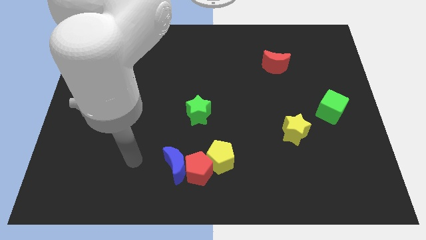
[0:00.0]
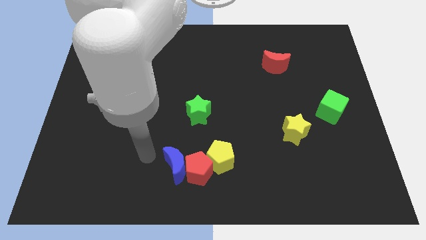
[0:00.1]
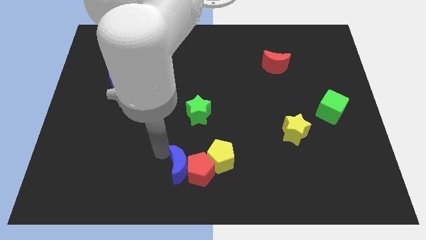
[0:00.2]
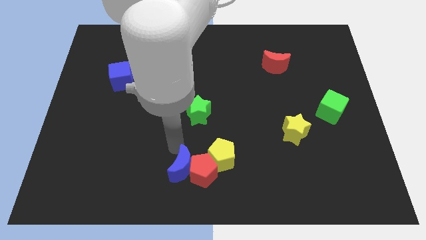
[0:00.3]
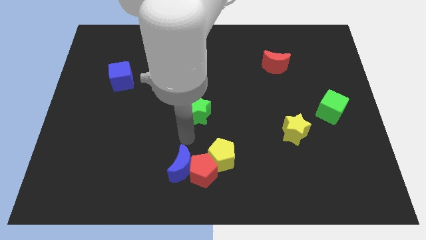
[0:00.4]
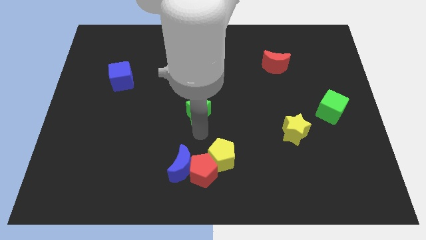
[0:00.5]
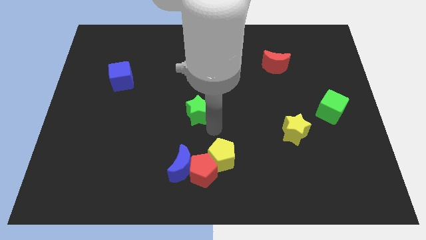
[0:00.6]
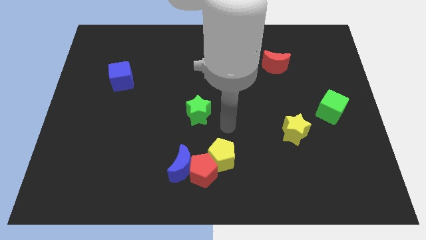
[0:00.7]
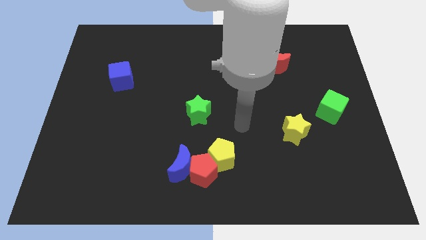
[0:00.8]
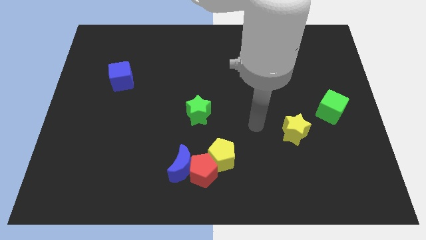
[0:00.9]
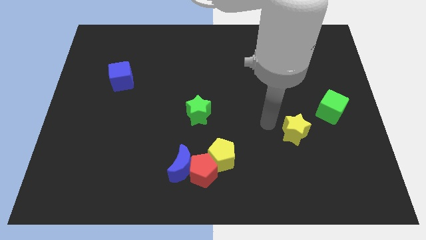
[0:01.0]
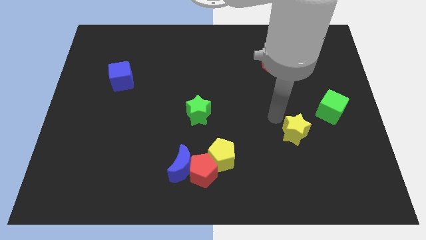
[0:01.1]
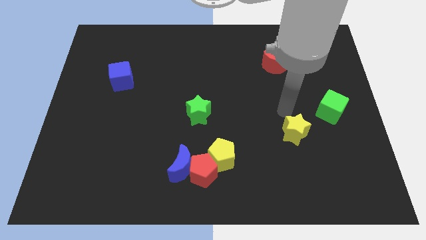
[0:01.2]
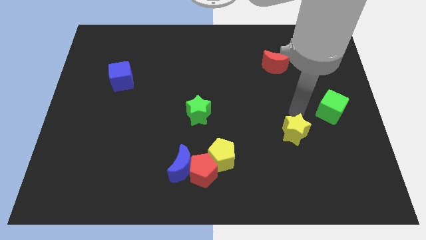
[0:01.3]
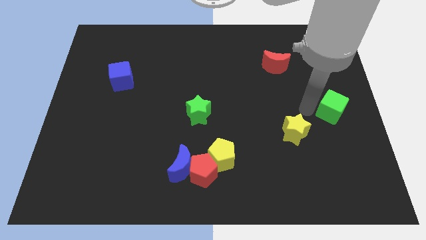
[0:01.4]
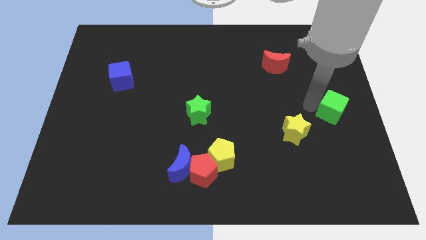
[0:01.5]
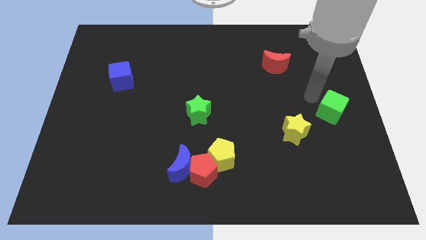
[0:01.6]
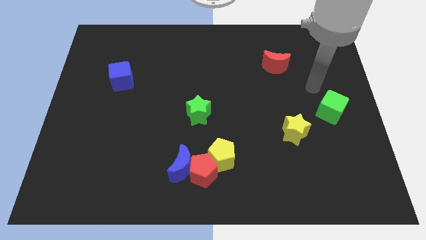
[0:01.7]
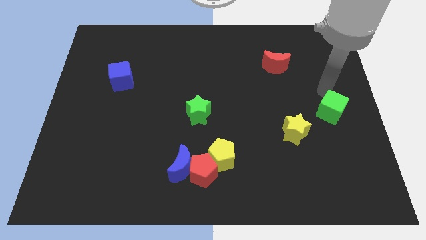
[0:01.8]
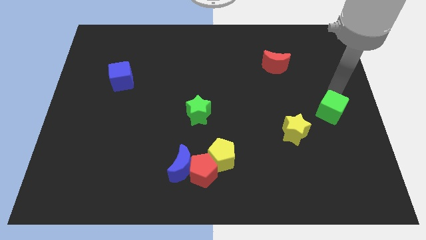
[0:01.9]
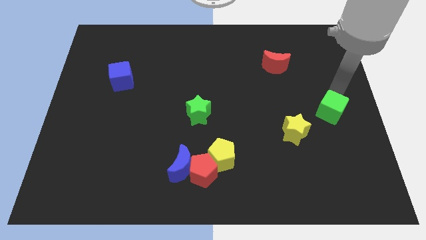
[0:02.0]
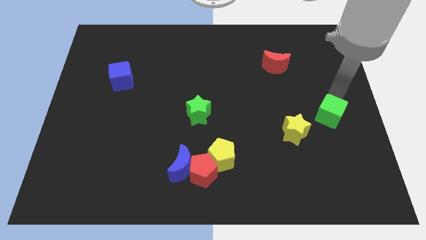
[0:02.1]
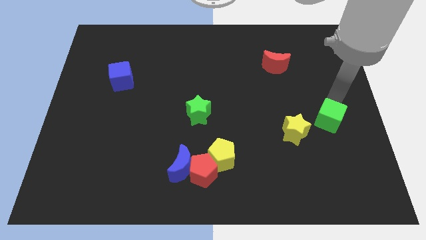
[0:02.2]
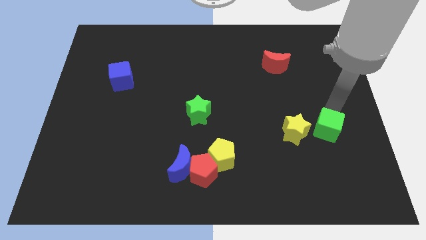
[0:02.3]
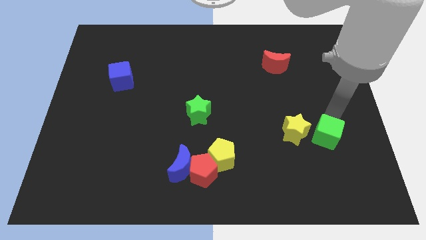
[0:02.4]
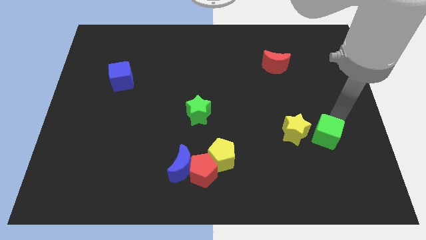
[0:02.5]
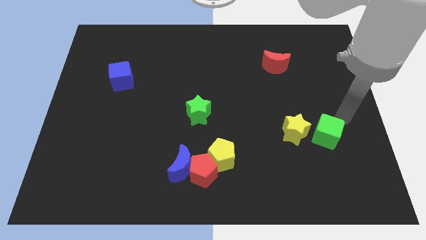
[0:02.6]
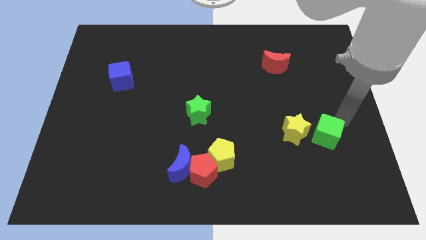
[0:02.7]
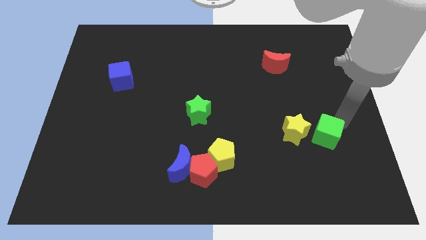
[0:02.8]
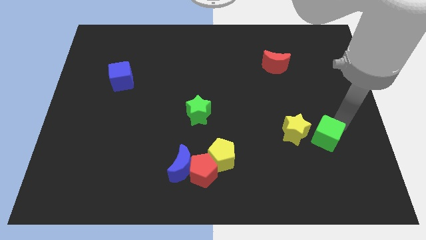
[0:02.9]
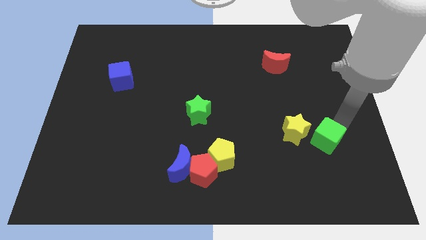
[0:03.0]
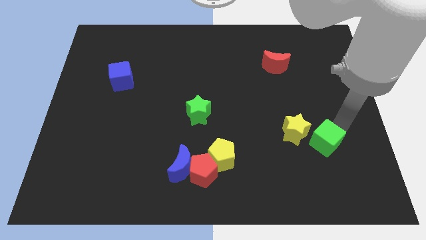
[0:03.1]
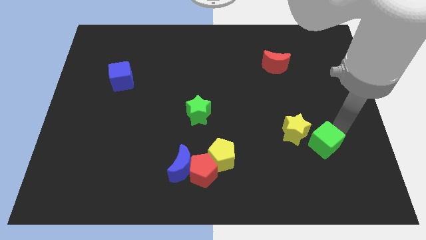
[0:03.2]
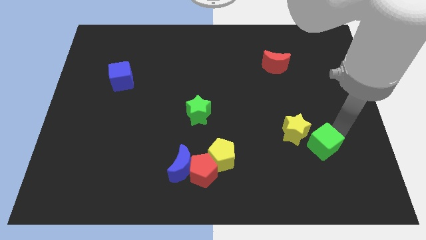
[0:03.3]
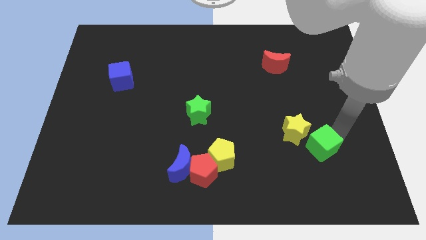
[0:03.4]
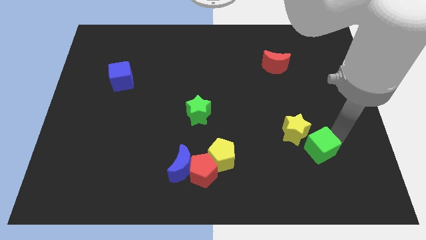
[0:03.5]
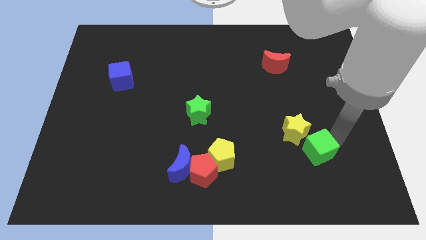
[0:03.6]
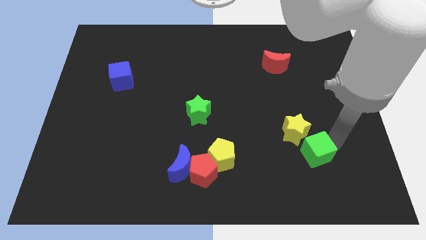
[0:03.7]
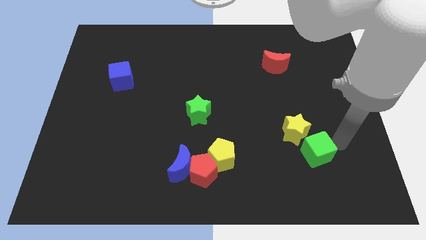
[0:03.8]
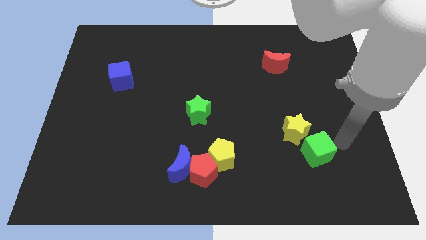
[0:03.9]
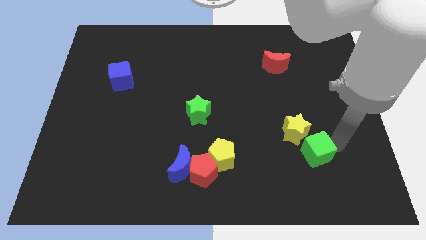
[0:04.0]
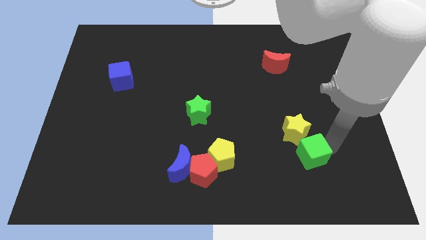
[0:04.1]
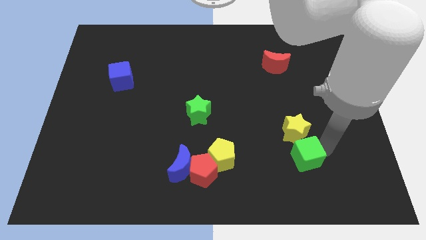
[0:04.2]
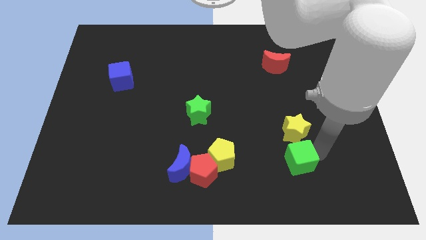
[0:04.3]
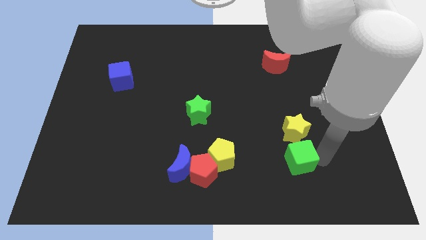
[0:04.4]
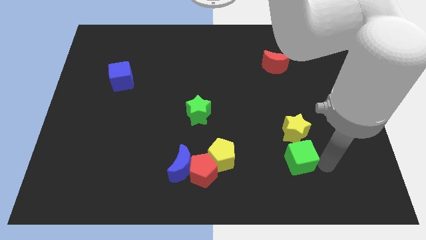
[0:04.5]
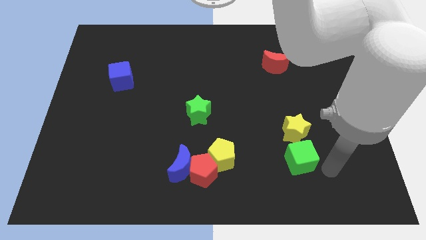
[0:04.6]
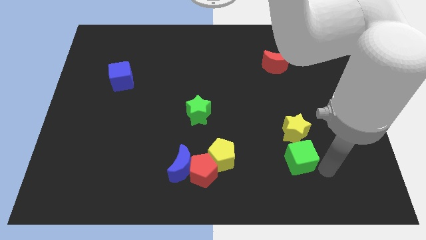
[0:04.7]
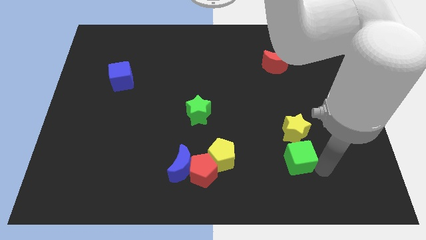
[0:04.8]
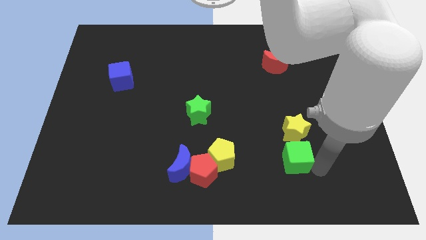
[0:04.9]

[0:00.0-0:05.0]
put the green cube to the bottom left side of the yellow star

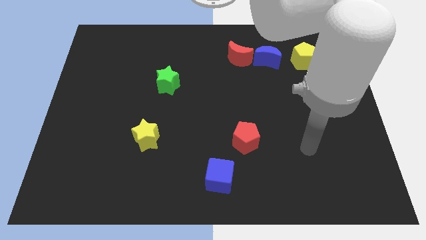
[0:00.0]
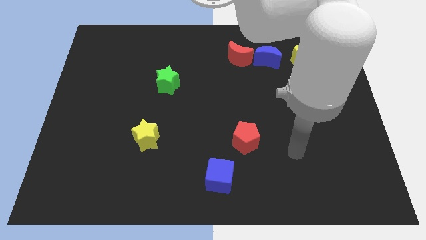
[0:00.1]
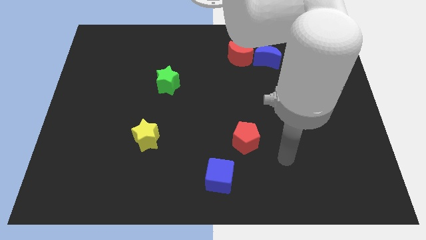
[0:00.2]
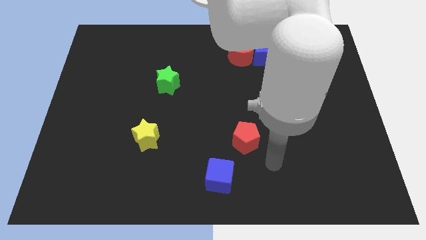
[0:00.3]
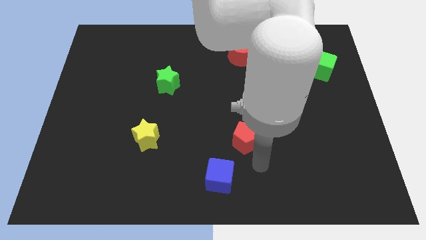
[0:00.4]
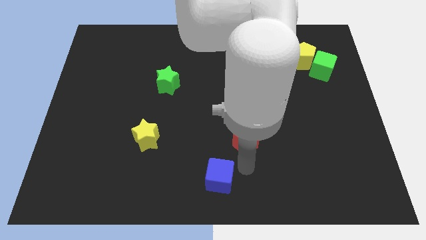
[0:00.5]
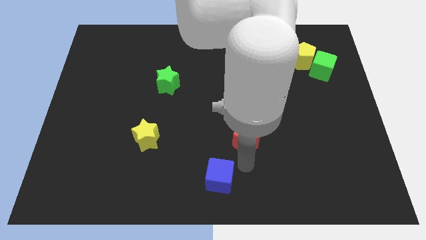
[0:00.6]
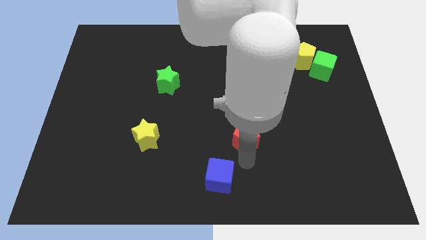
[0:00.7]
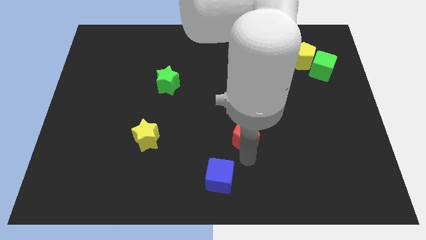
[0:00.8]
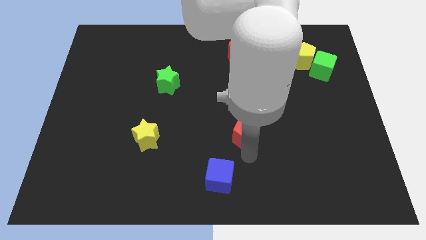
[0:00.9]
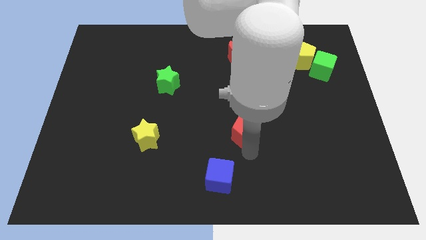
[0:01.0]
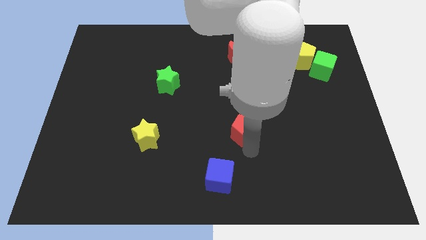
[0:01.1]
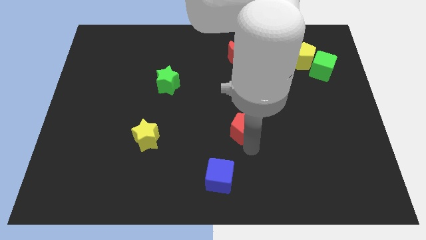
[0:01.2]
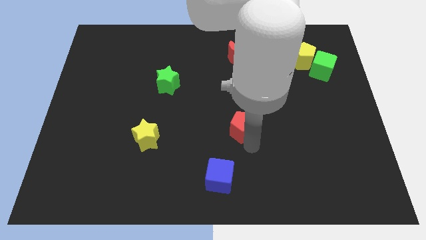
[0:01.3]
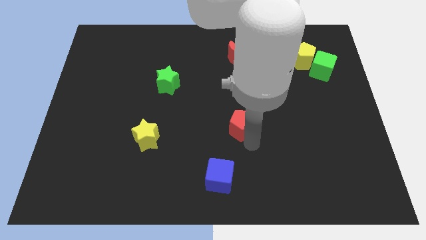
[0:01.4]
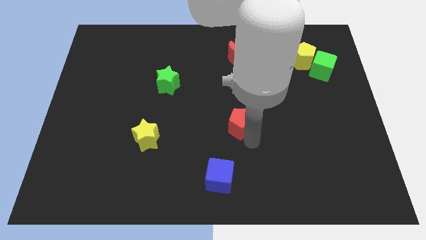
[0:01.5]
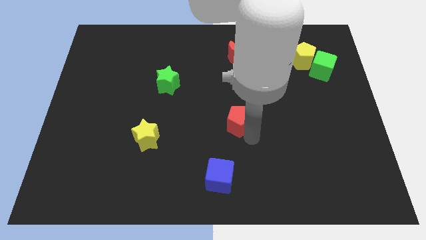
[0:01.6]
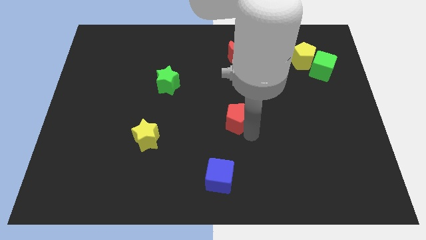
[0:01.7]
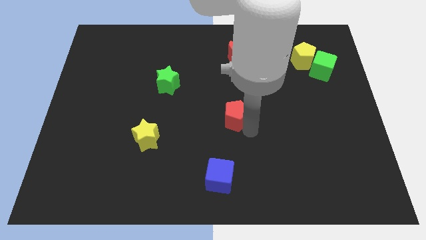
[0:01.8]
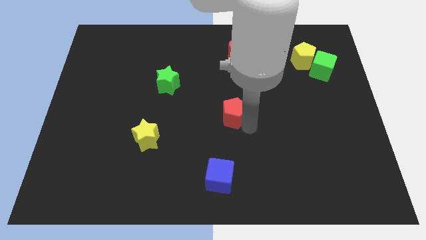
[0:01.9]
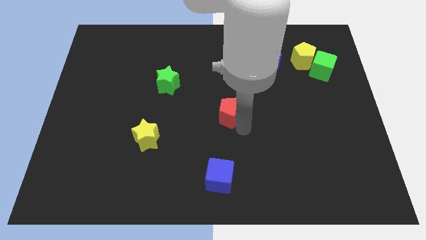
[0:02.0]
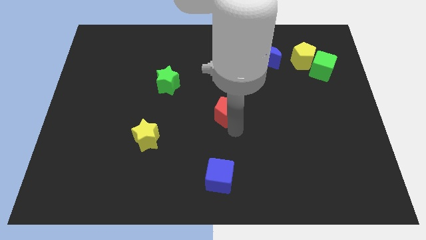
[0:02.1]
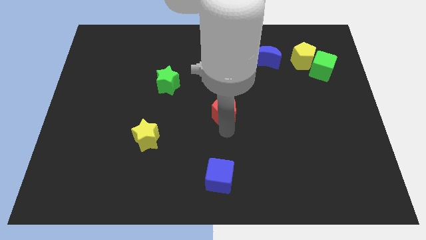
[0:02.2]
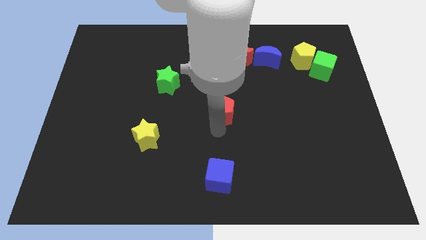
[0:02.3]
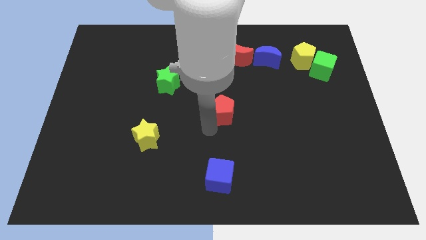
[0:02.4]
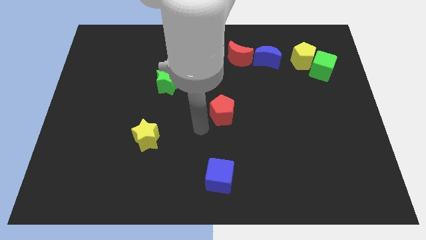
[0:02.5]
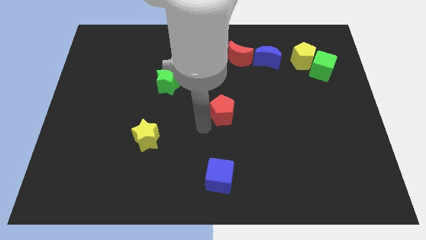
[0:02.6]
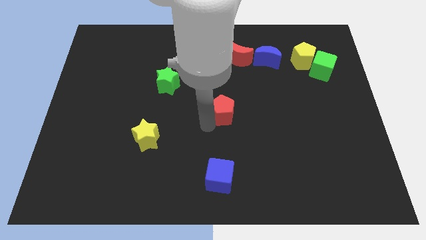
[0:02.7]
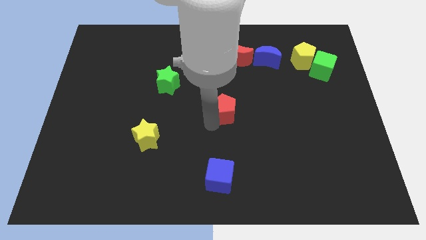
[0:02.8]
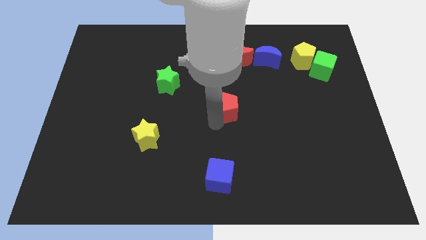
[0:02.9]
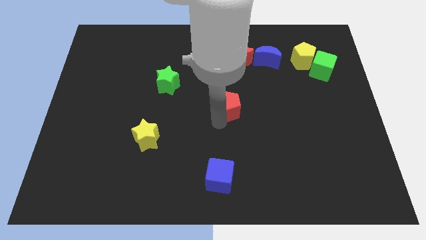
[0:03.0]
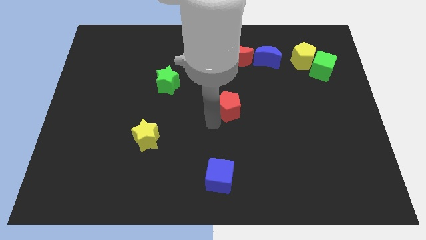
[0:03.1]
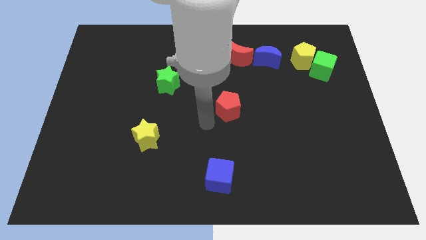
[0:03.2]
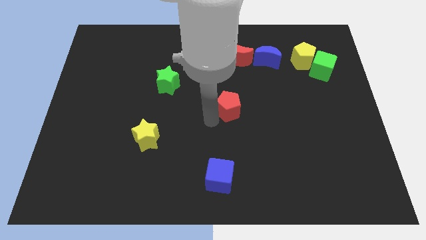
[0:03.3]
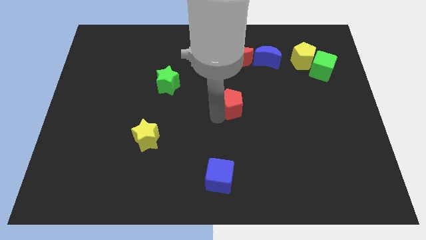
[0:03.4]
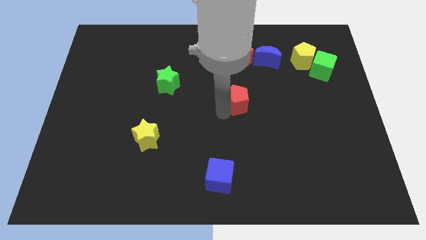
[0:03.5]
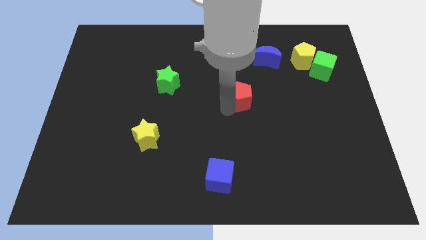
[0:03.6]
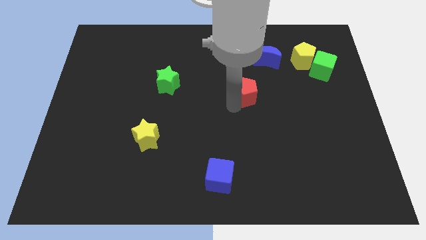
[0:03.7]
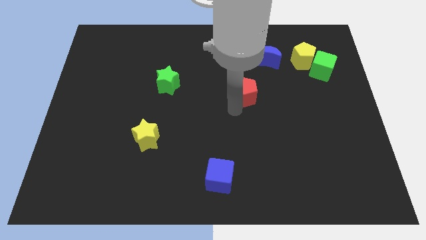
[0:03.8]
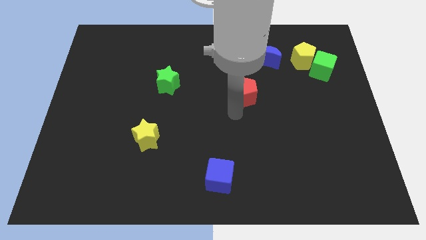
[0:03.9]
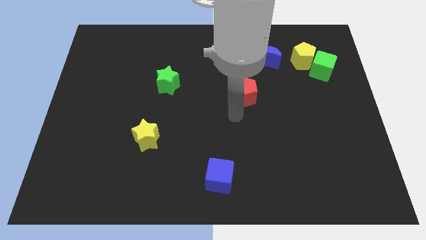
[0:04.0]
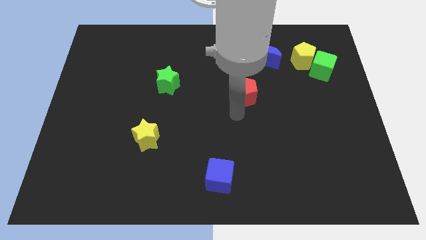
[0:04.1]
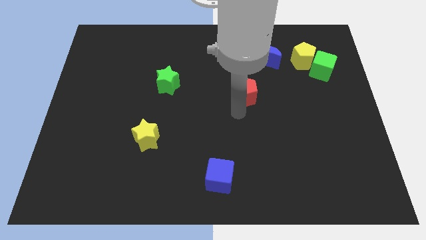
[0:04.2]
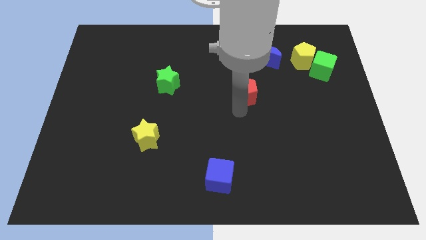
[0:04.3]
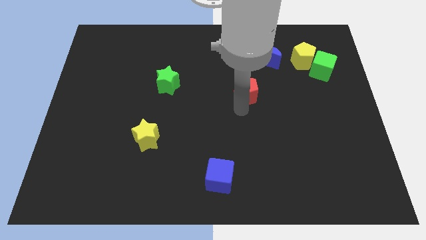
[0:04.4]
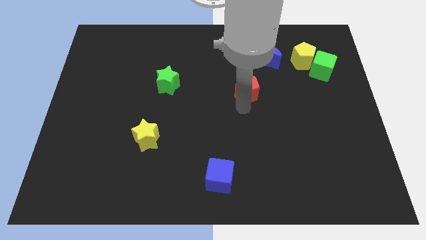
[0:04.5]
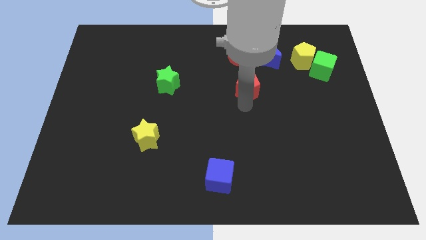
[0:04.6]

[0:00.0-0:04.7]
move the red pentagon diagonally down and to the left of the blue moon
